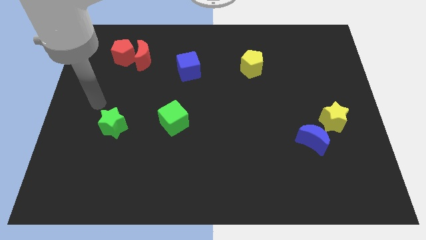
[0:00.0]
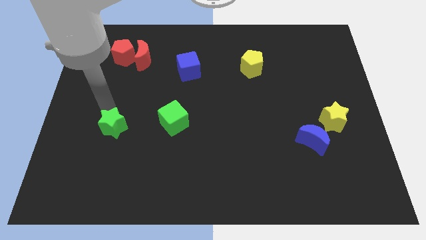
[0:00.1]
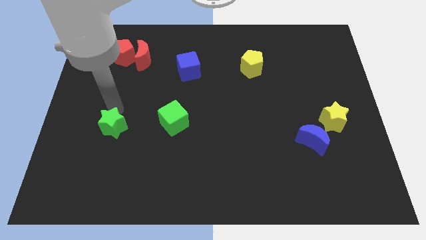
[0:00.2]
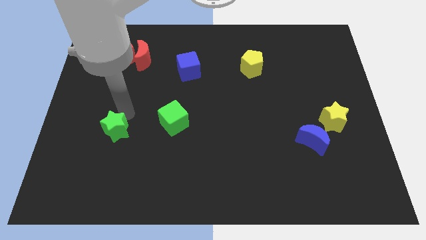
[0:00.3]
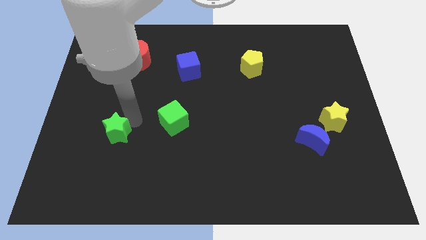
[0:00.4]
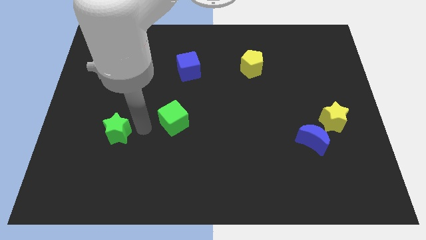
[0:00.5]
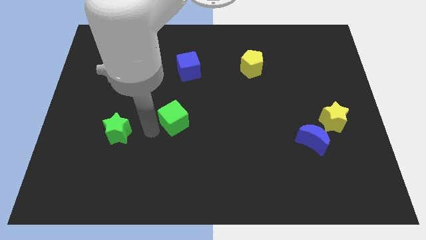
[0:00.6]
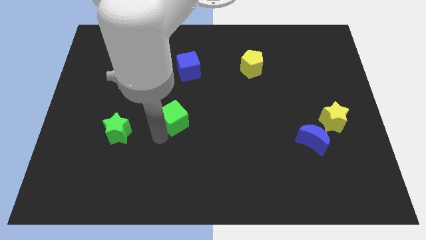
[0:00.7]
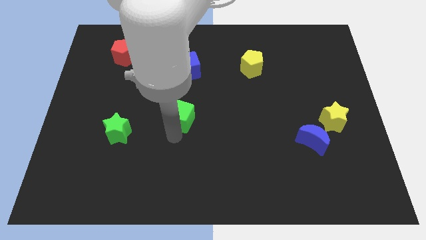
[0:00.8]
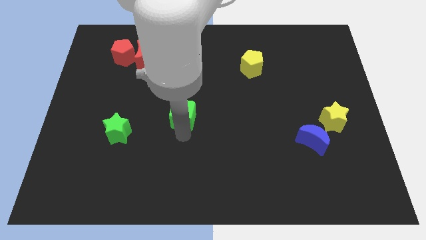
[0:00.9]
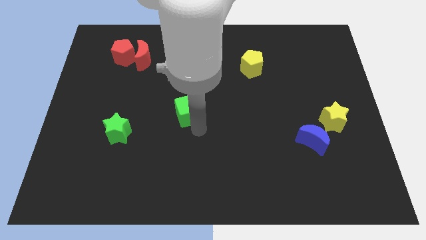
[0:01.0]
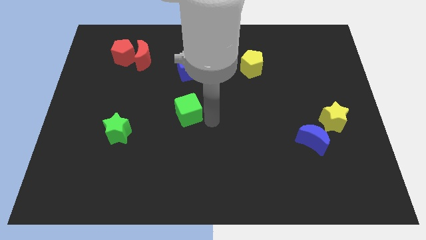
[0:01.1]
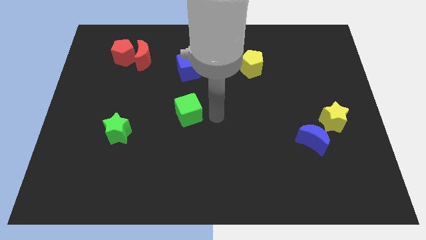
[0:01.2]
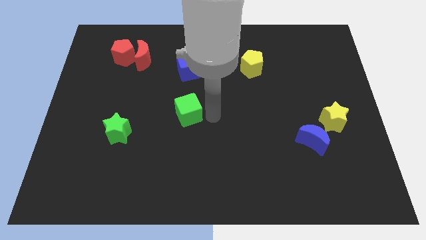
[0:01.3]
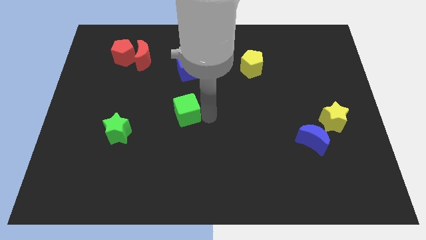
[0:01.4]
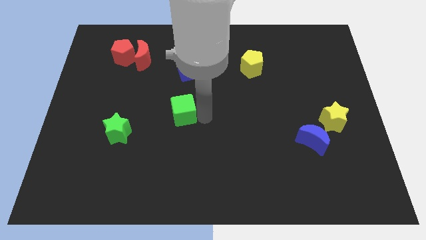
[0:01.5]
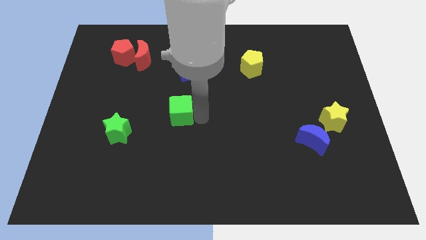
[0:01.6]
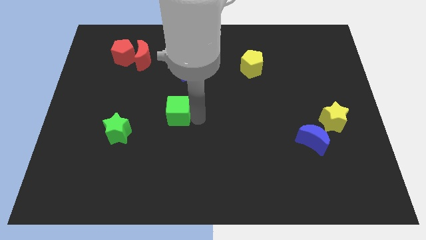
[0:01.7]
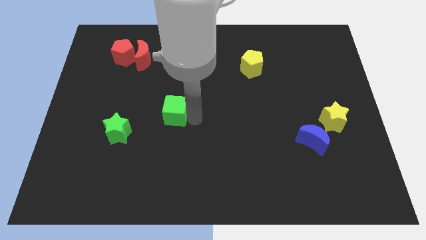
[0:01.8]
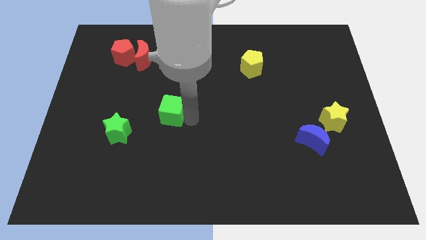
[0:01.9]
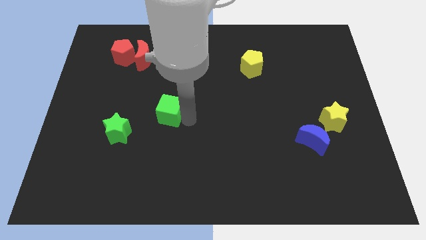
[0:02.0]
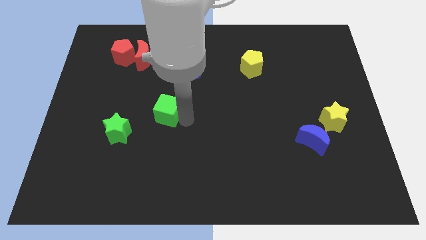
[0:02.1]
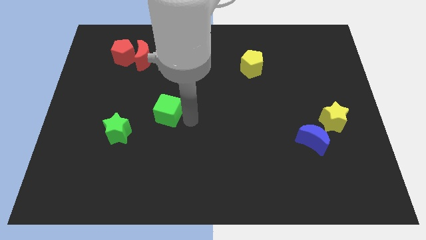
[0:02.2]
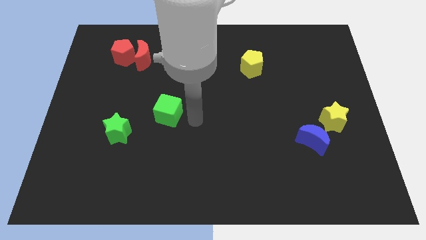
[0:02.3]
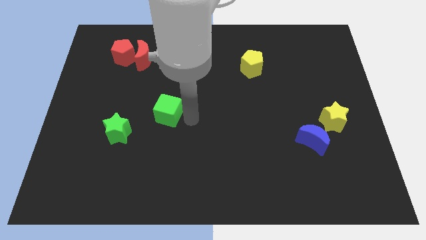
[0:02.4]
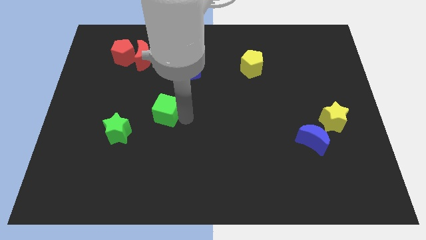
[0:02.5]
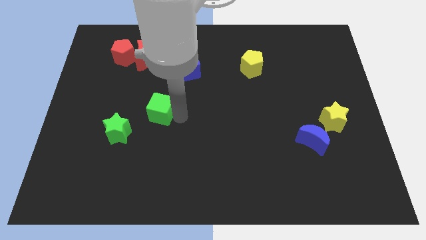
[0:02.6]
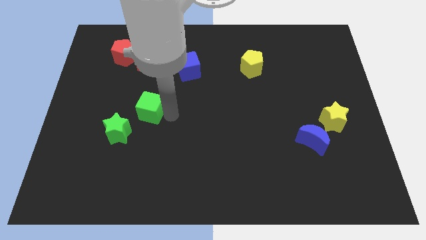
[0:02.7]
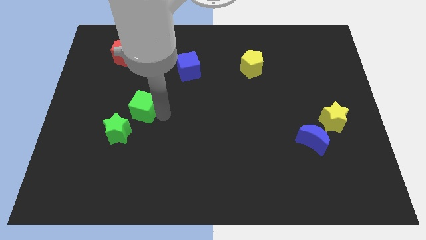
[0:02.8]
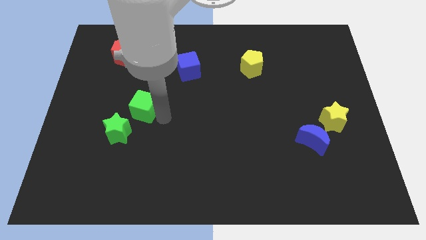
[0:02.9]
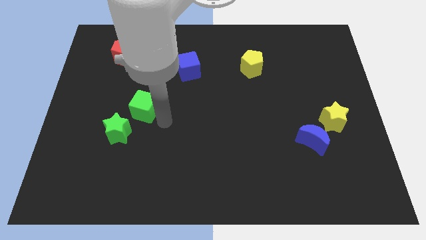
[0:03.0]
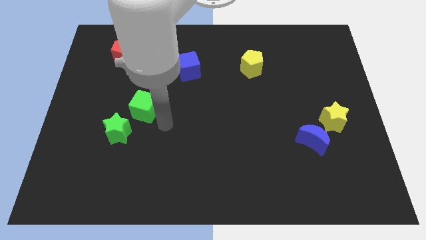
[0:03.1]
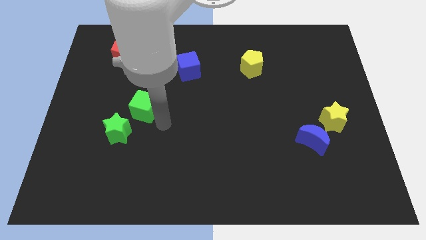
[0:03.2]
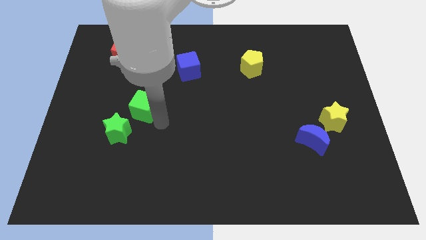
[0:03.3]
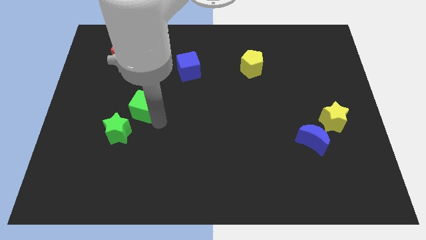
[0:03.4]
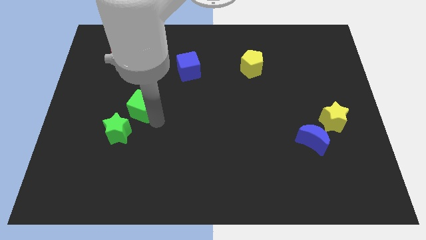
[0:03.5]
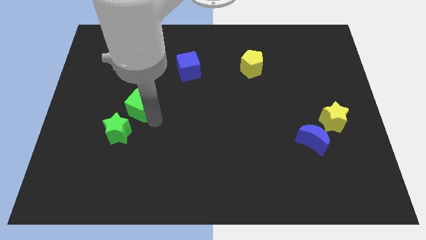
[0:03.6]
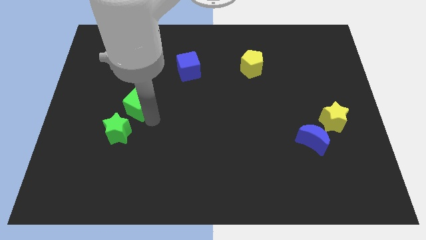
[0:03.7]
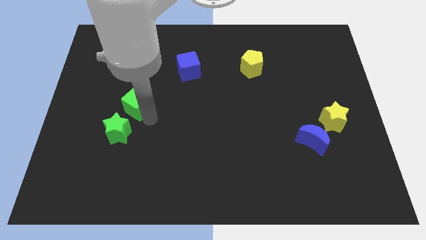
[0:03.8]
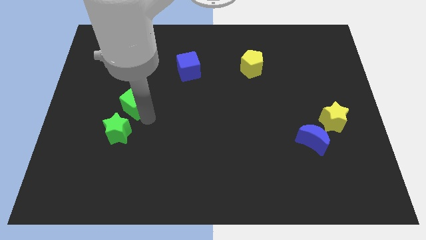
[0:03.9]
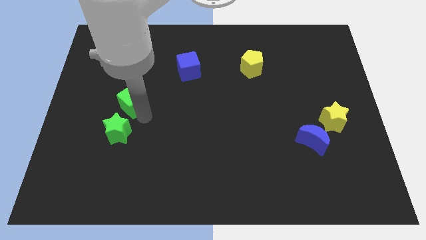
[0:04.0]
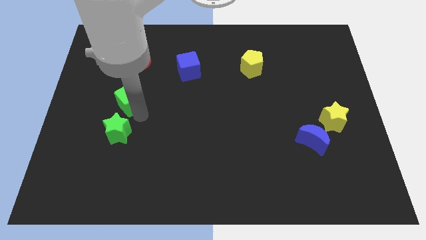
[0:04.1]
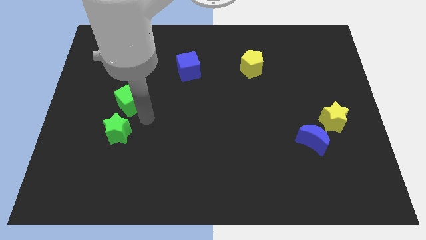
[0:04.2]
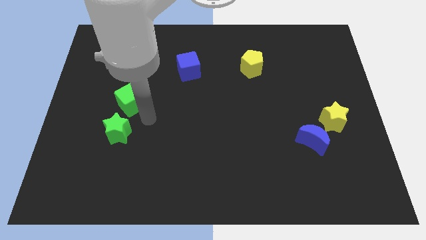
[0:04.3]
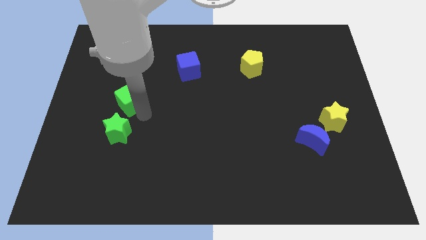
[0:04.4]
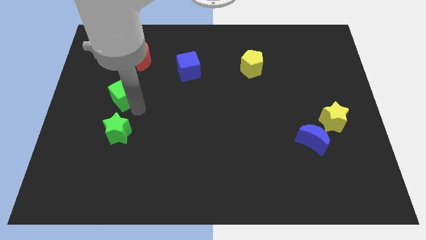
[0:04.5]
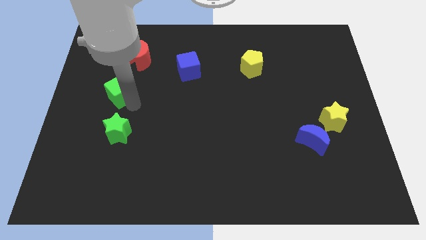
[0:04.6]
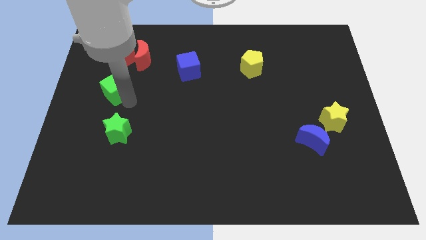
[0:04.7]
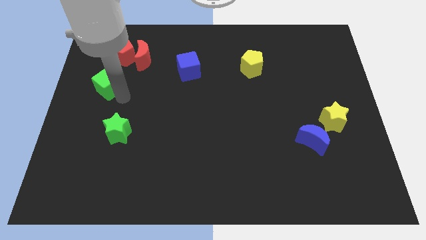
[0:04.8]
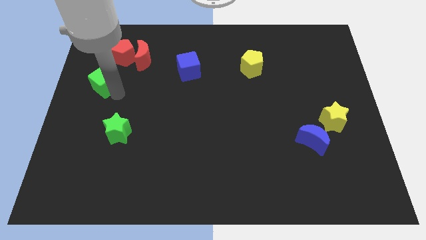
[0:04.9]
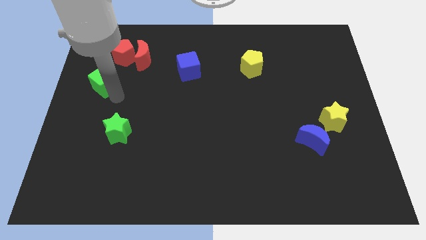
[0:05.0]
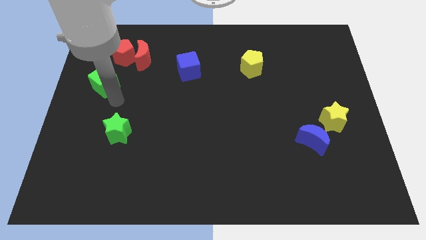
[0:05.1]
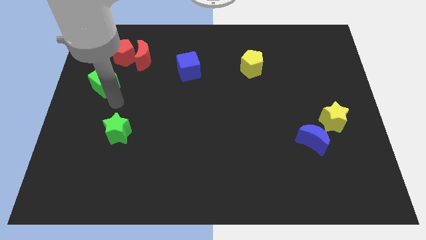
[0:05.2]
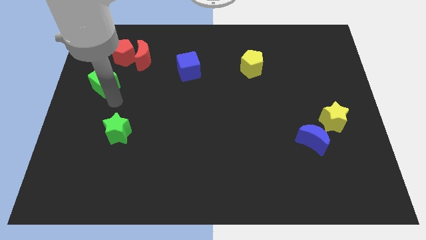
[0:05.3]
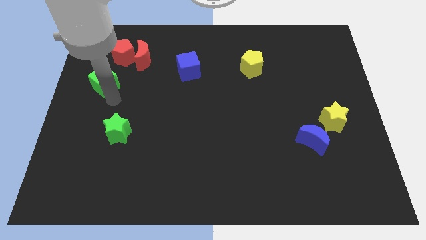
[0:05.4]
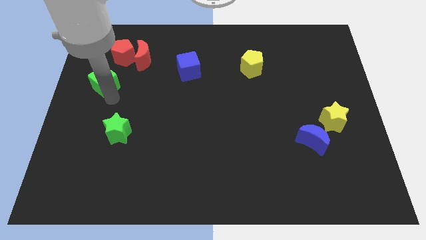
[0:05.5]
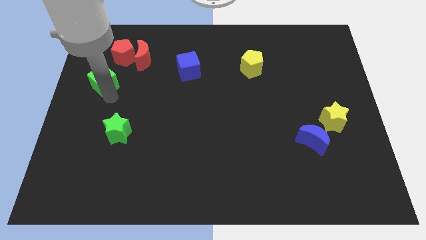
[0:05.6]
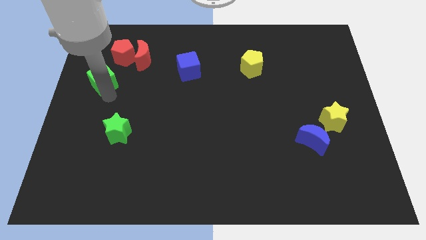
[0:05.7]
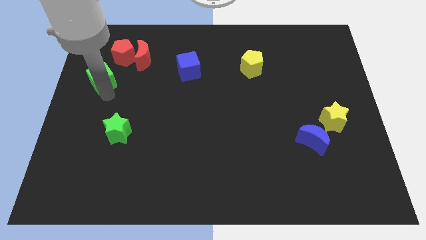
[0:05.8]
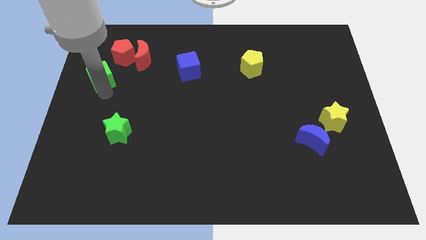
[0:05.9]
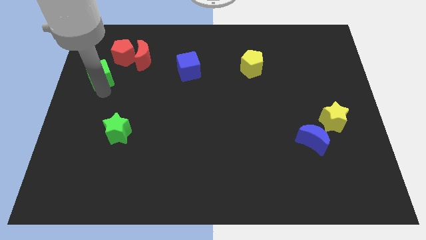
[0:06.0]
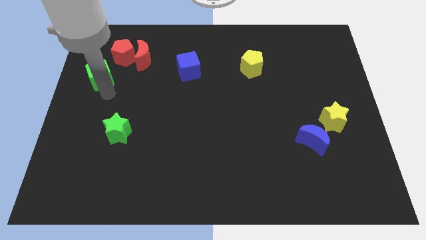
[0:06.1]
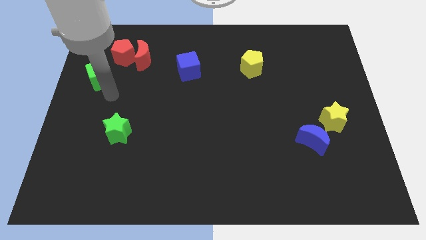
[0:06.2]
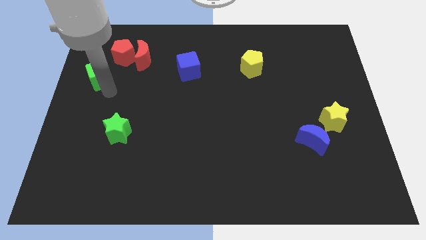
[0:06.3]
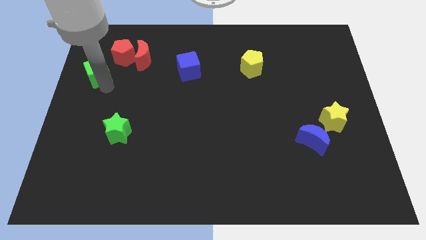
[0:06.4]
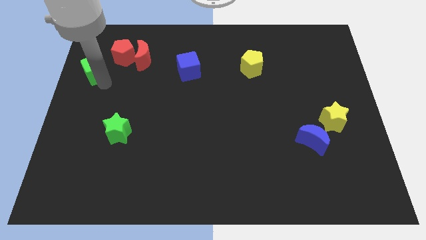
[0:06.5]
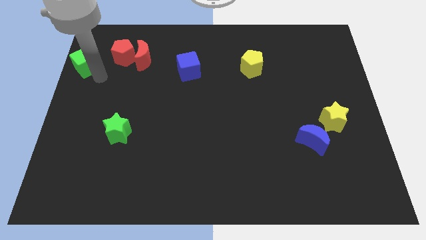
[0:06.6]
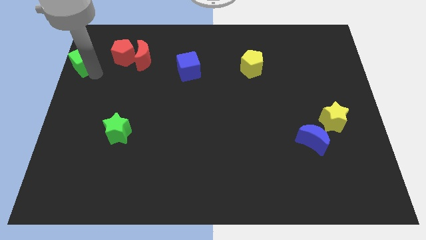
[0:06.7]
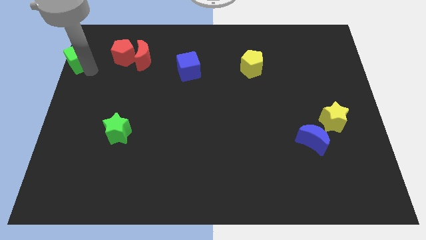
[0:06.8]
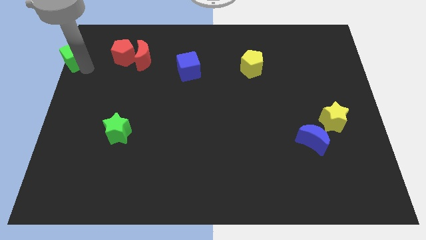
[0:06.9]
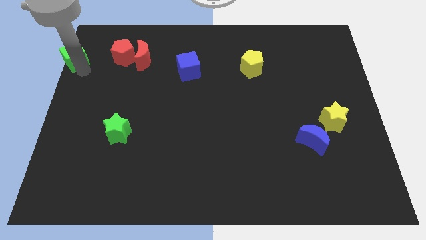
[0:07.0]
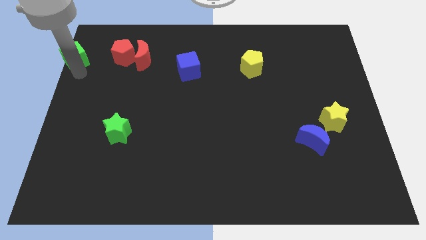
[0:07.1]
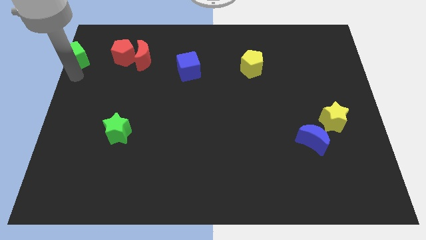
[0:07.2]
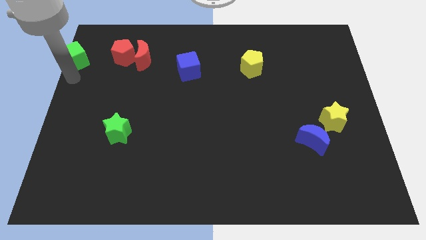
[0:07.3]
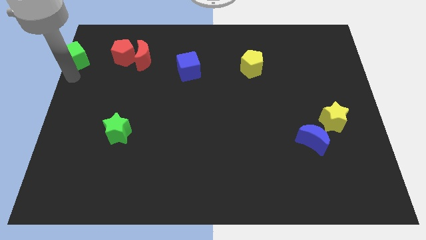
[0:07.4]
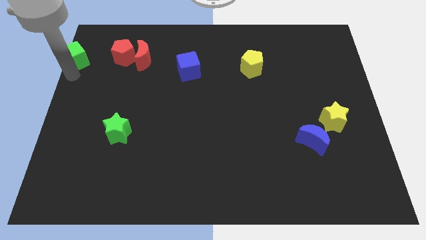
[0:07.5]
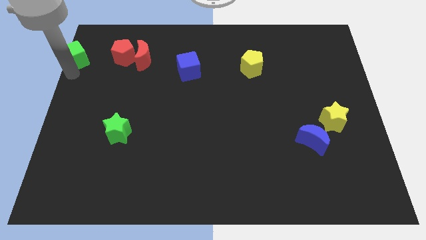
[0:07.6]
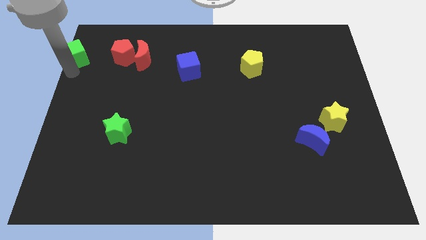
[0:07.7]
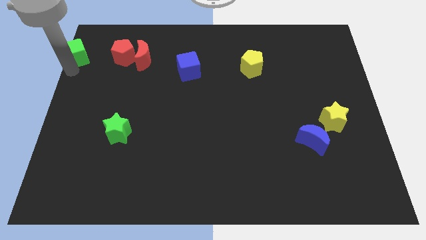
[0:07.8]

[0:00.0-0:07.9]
put the green cube to the upper left corner
